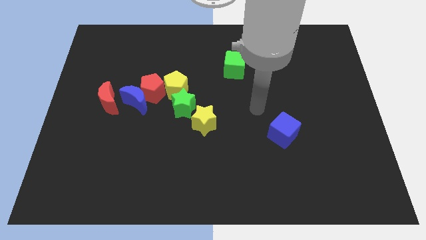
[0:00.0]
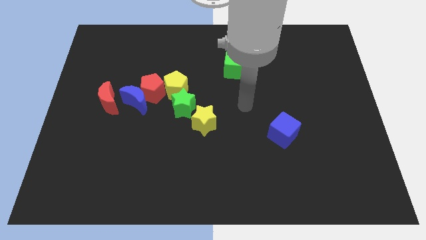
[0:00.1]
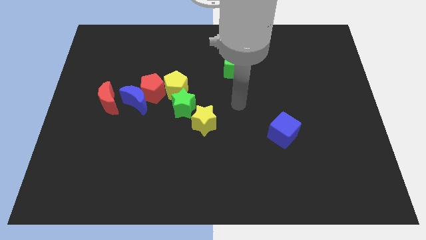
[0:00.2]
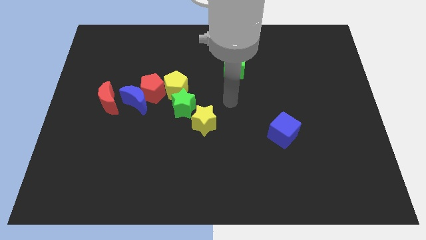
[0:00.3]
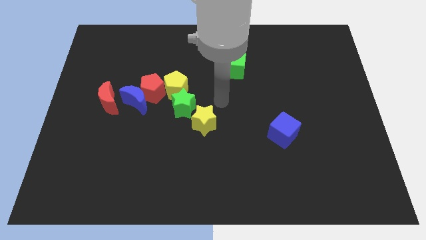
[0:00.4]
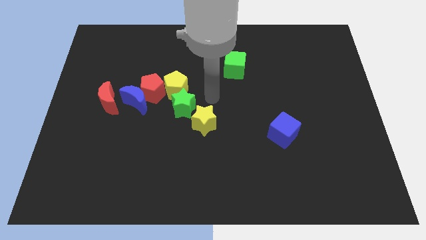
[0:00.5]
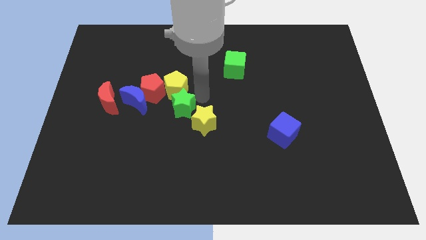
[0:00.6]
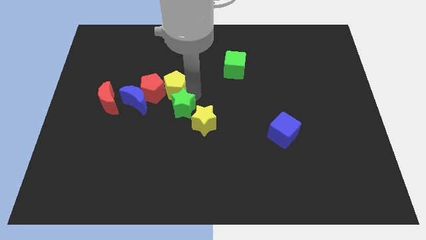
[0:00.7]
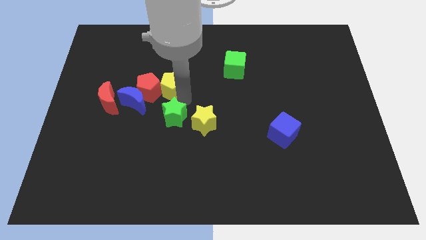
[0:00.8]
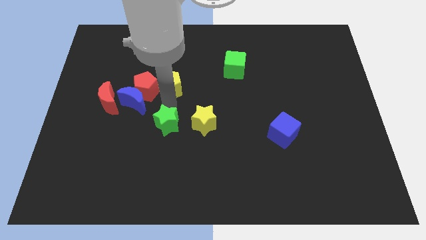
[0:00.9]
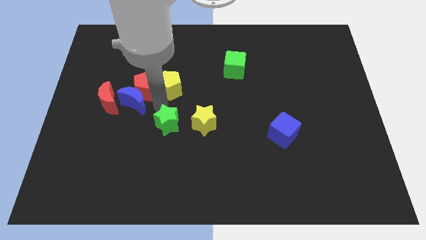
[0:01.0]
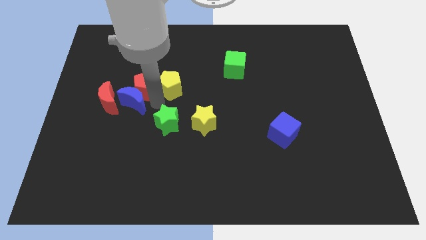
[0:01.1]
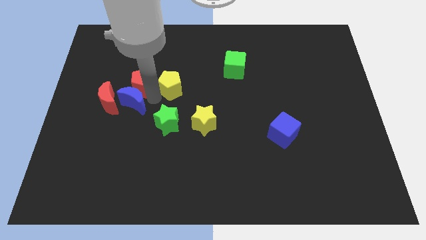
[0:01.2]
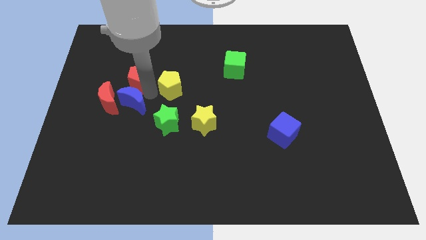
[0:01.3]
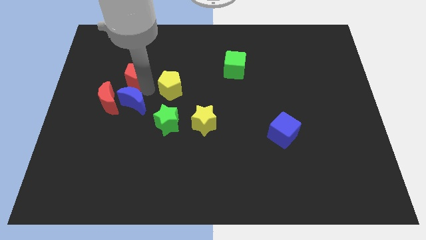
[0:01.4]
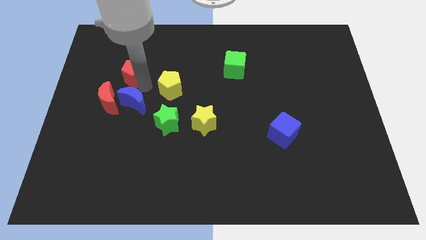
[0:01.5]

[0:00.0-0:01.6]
separate the red pentagon from the blue moon, yellow pentagon, and green star

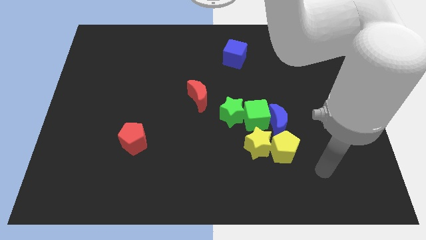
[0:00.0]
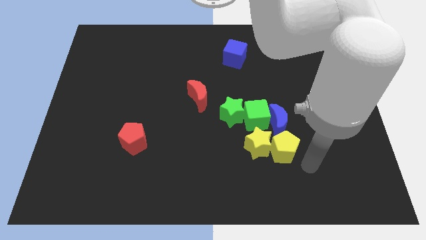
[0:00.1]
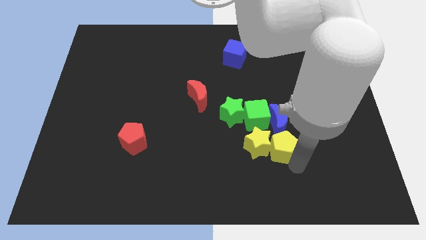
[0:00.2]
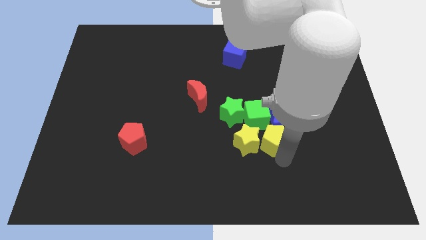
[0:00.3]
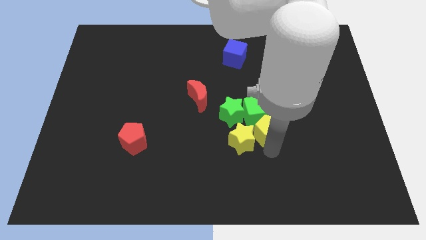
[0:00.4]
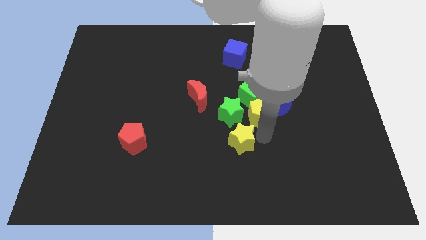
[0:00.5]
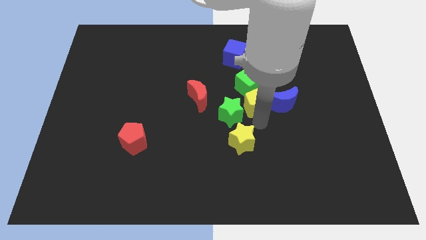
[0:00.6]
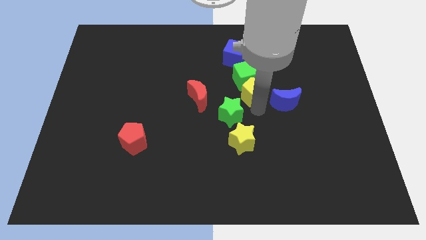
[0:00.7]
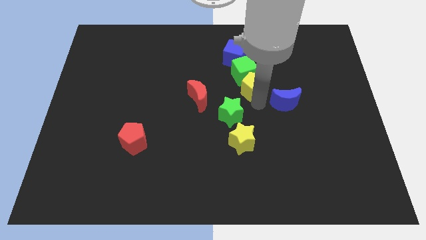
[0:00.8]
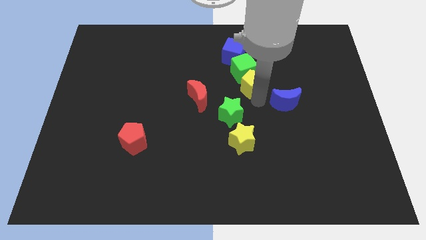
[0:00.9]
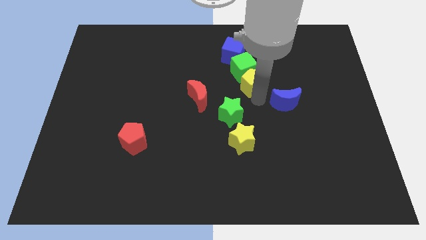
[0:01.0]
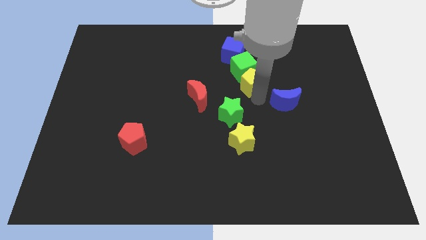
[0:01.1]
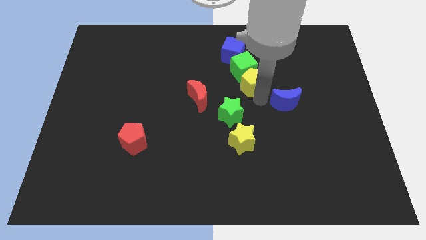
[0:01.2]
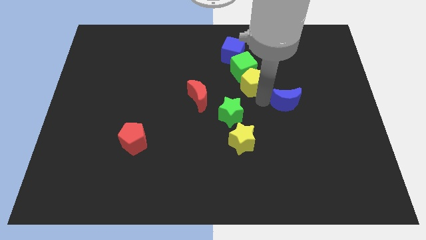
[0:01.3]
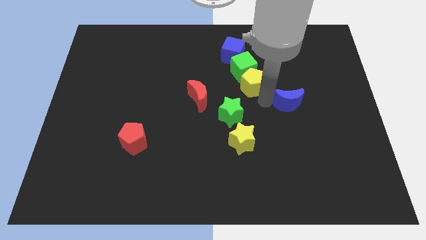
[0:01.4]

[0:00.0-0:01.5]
separate the blue moon from the green cube, yellow pentagon, and yellow star

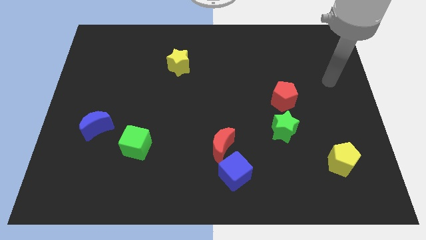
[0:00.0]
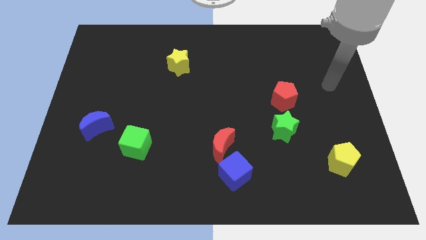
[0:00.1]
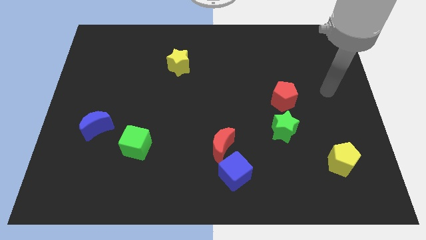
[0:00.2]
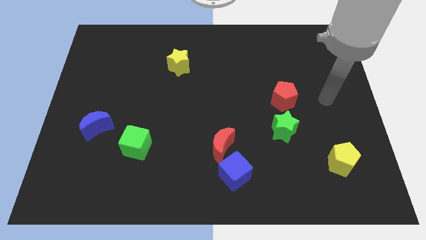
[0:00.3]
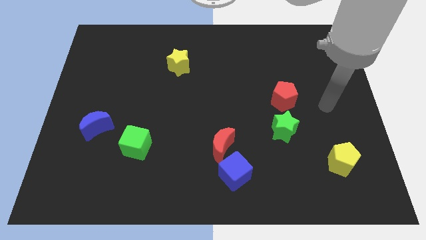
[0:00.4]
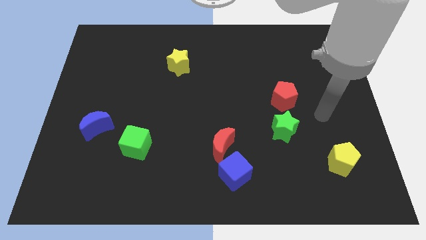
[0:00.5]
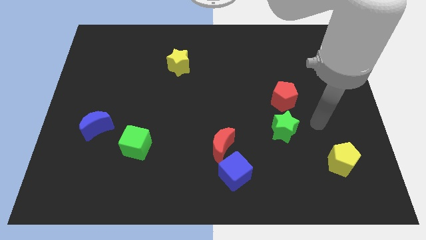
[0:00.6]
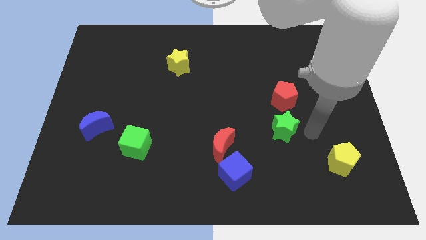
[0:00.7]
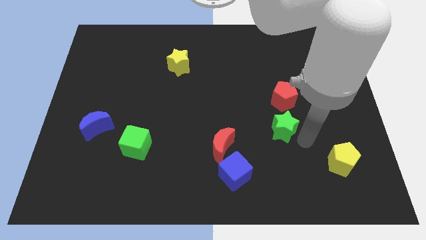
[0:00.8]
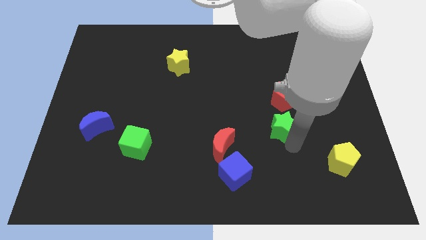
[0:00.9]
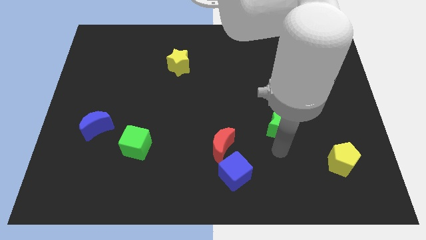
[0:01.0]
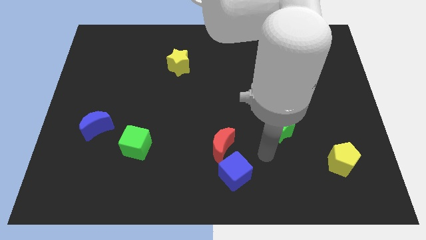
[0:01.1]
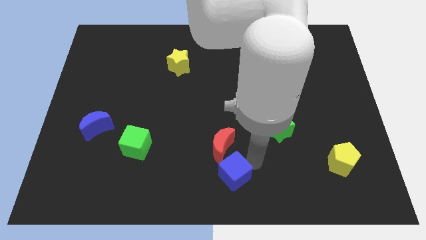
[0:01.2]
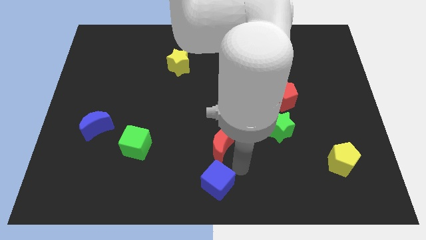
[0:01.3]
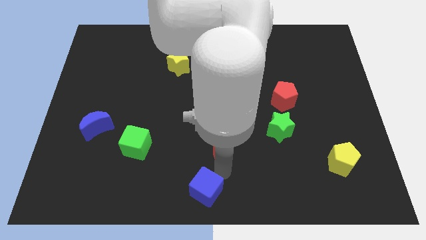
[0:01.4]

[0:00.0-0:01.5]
separate the red moon from the blue cube

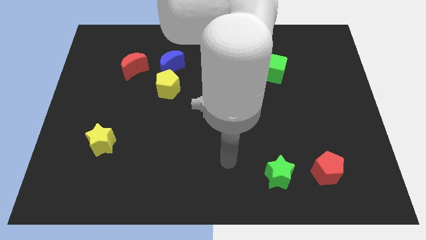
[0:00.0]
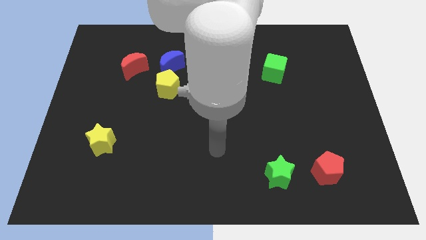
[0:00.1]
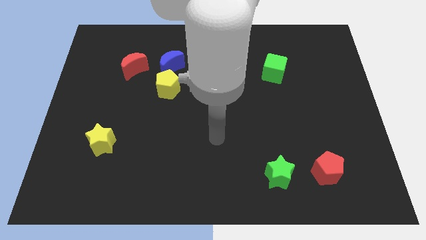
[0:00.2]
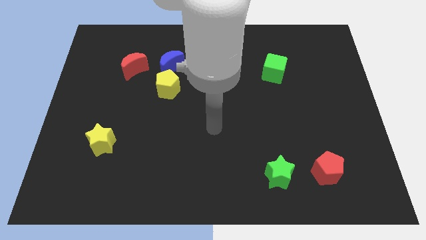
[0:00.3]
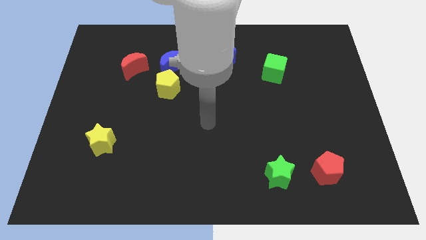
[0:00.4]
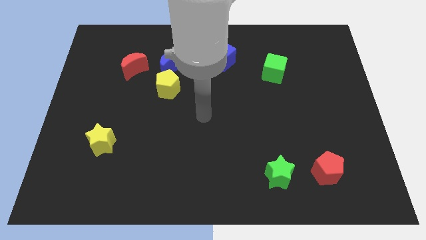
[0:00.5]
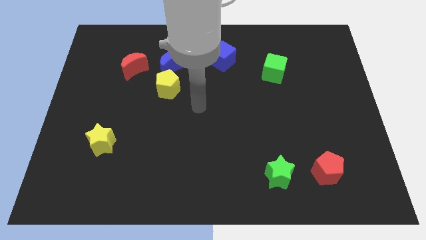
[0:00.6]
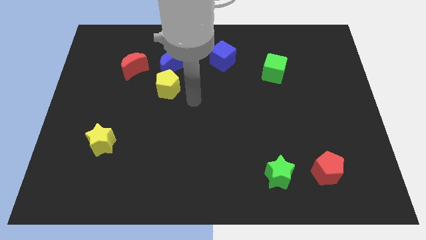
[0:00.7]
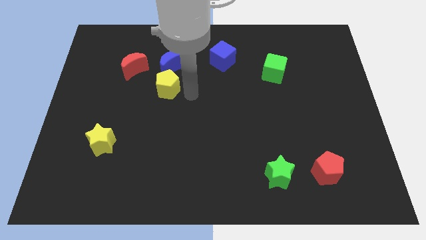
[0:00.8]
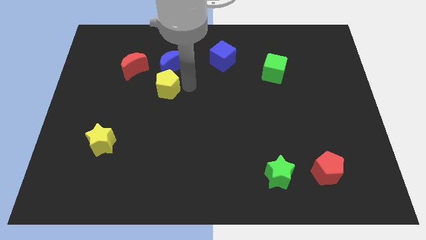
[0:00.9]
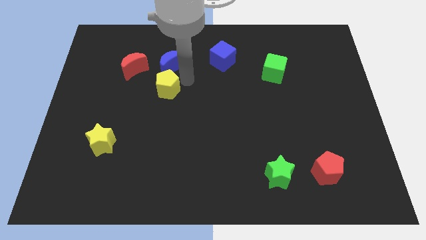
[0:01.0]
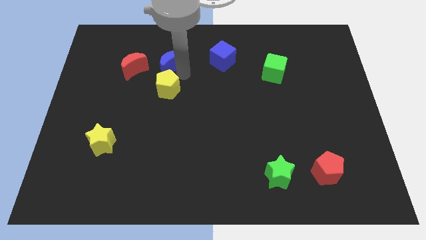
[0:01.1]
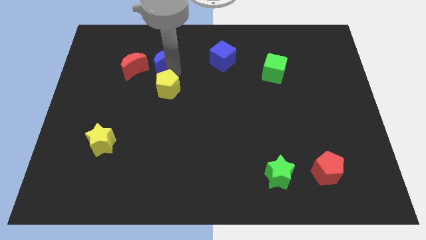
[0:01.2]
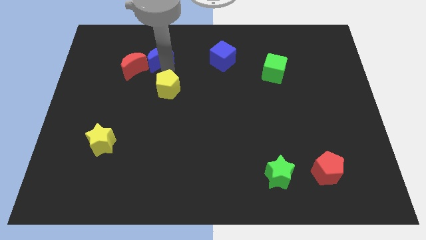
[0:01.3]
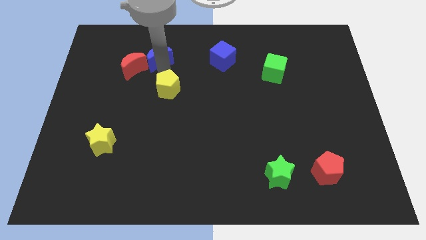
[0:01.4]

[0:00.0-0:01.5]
pull the yellow pentagon apart from the blue moon

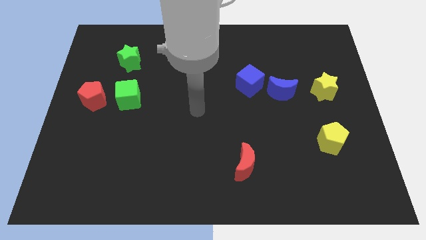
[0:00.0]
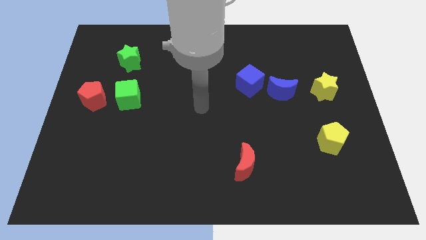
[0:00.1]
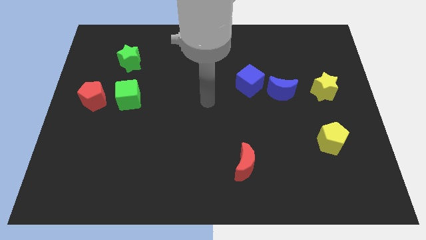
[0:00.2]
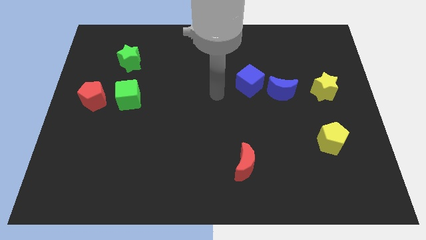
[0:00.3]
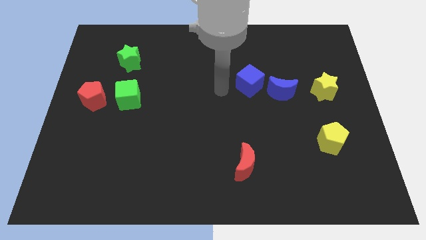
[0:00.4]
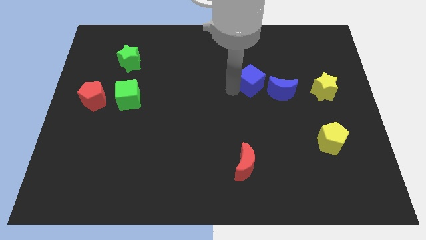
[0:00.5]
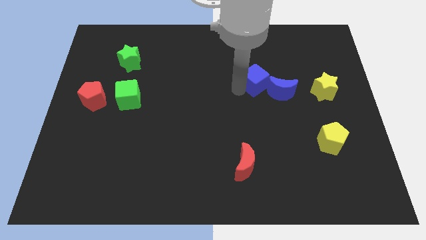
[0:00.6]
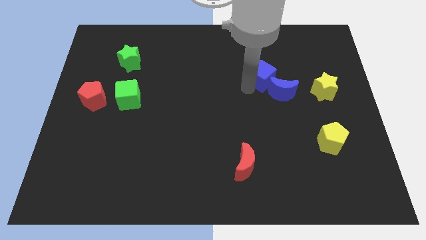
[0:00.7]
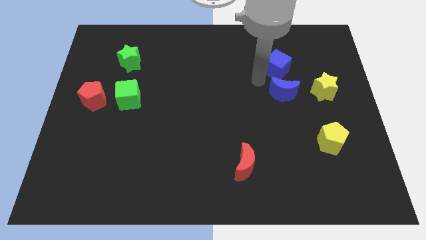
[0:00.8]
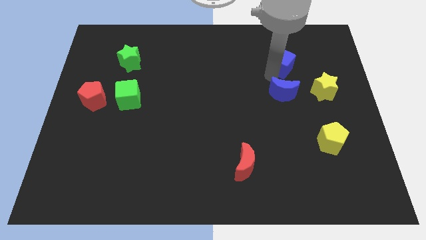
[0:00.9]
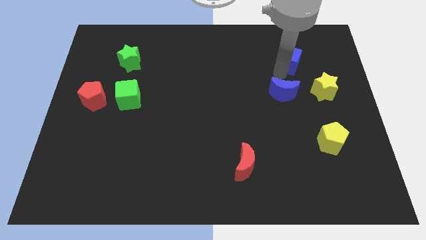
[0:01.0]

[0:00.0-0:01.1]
pull the blue moon apart from the blue cube

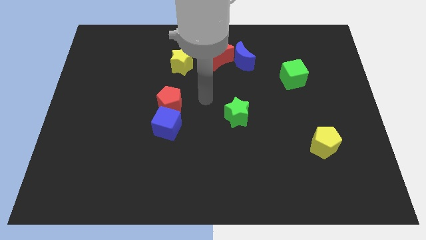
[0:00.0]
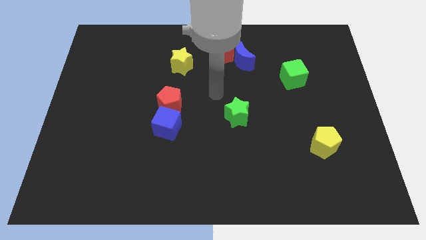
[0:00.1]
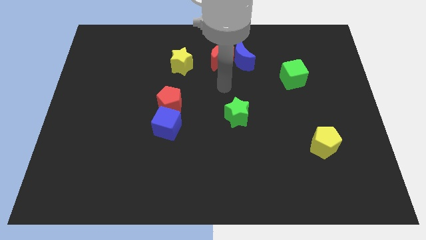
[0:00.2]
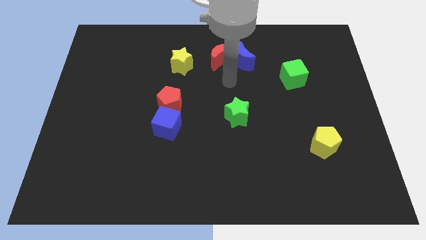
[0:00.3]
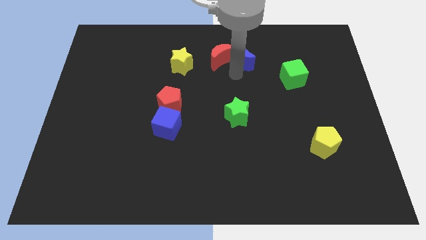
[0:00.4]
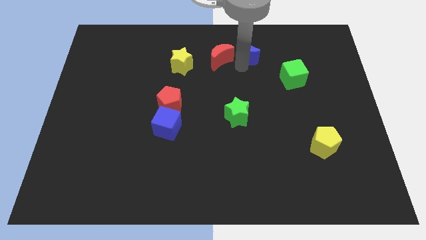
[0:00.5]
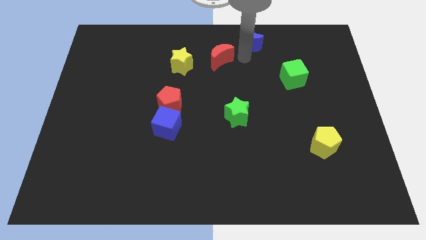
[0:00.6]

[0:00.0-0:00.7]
pull the red moon apart from the blue moon

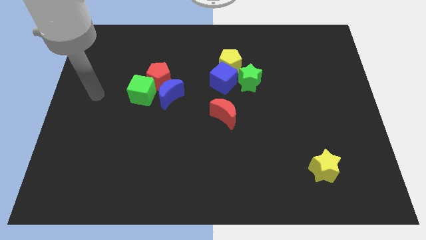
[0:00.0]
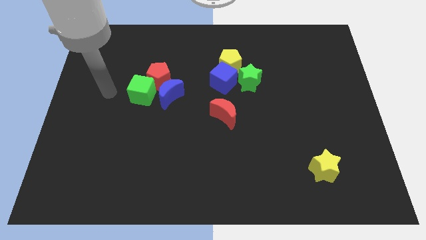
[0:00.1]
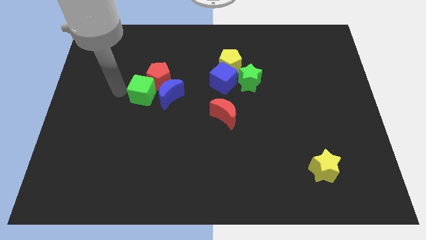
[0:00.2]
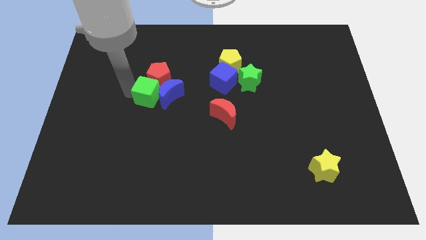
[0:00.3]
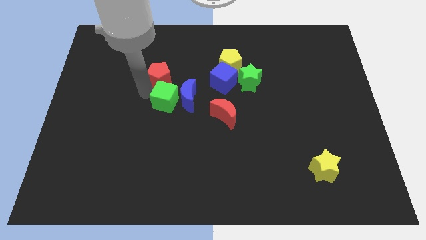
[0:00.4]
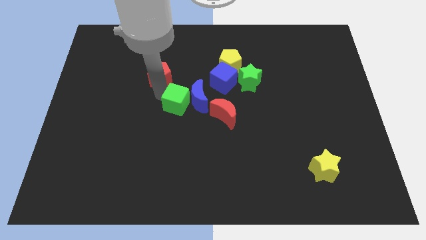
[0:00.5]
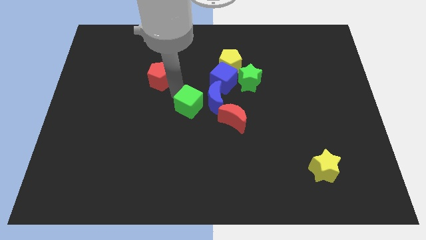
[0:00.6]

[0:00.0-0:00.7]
separate the red pentagon from the blue moon and green cube

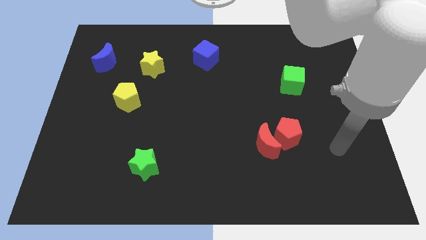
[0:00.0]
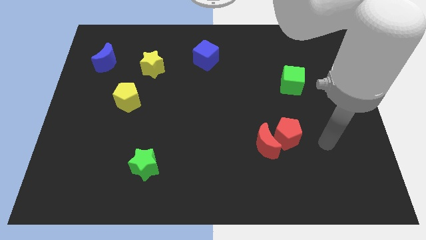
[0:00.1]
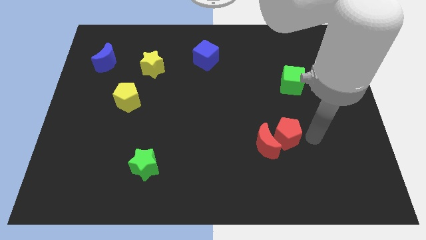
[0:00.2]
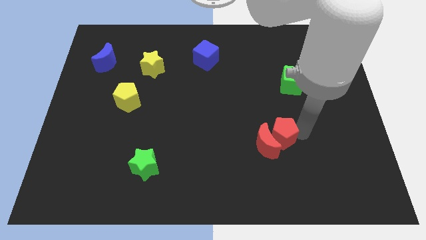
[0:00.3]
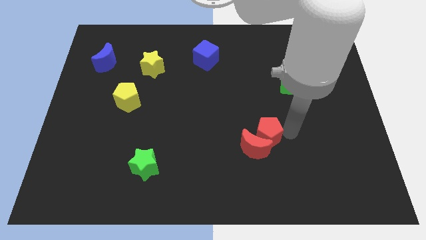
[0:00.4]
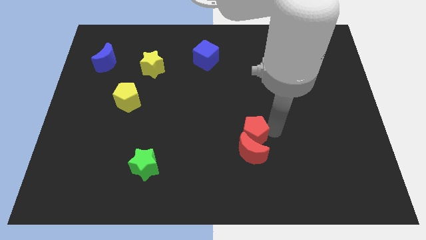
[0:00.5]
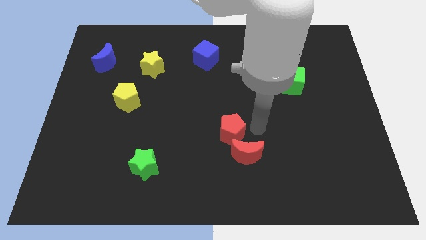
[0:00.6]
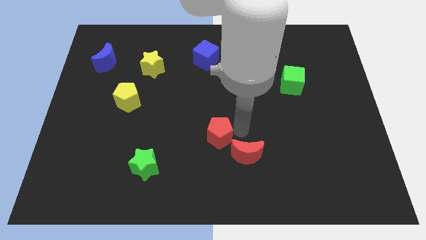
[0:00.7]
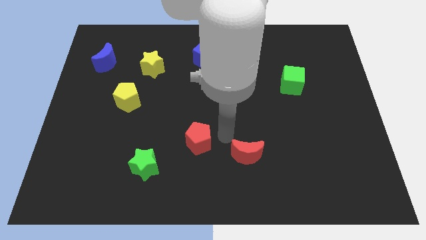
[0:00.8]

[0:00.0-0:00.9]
move the red moon away from the red pentagon

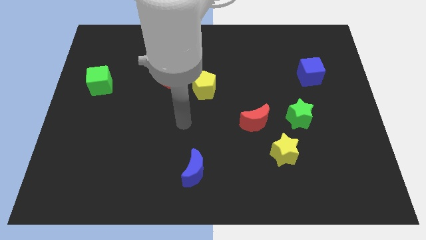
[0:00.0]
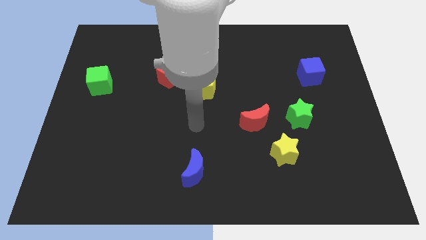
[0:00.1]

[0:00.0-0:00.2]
pull the red moon apart from the yellow star
